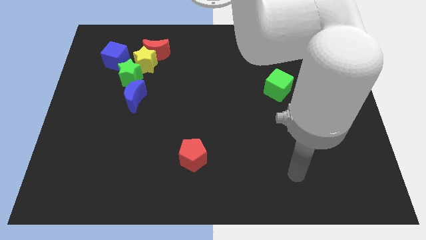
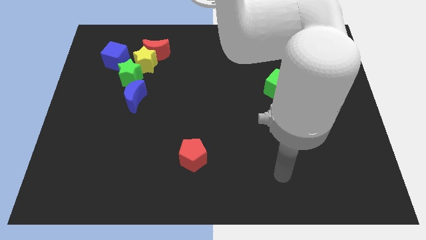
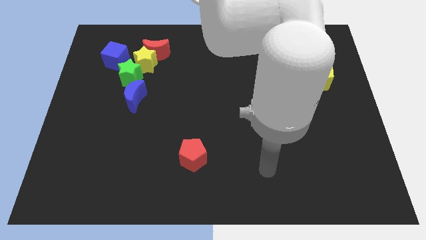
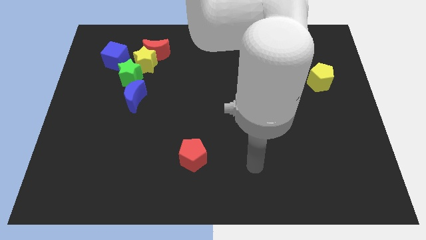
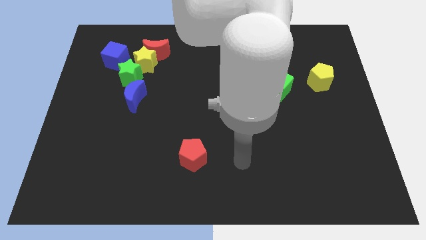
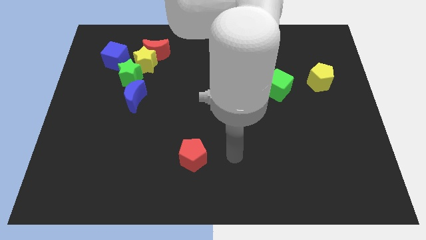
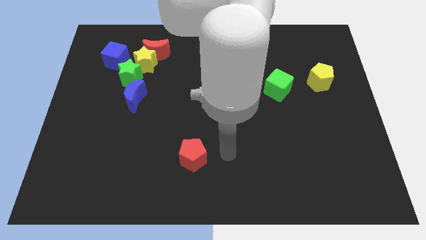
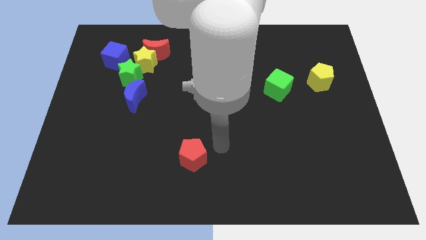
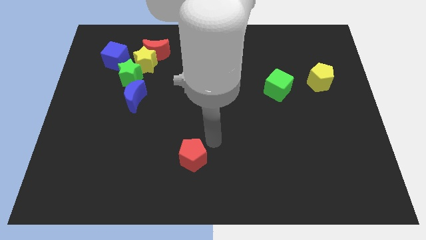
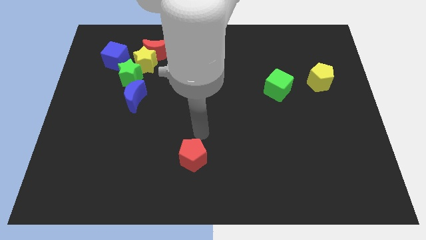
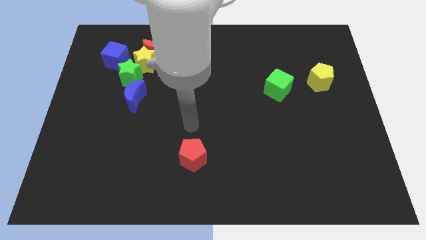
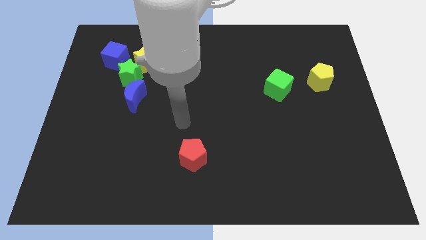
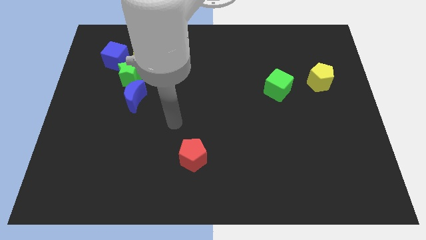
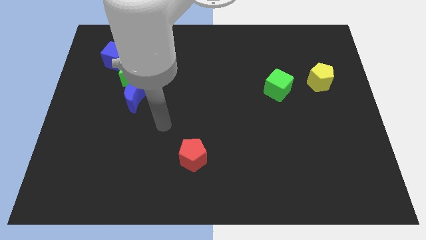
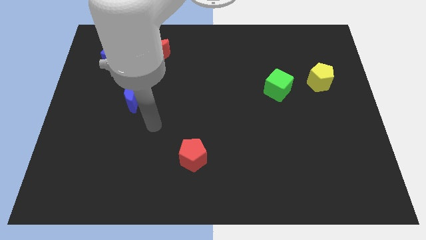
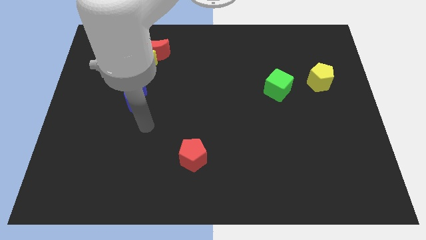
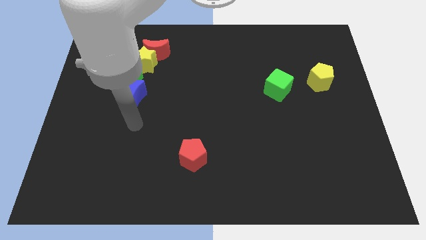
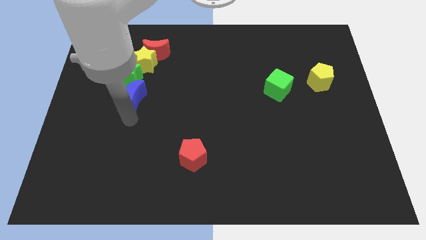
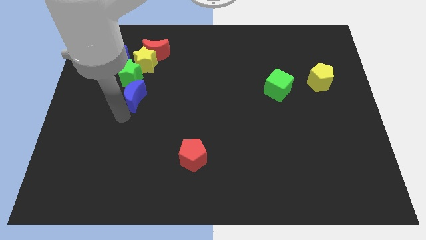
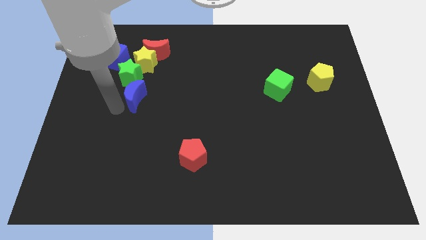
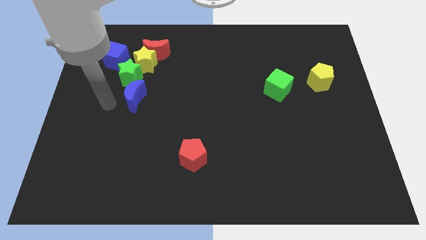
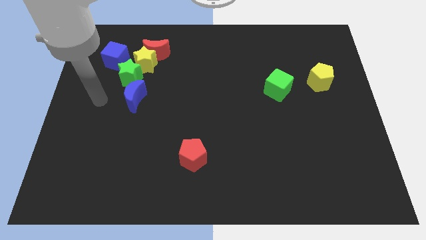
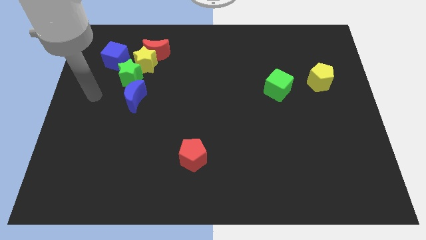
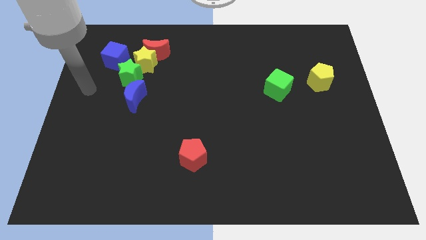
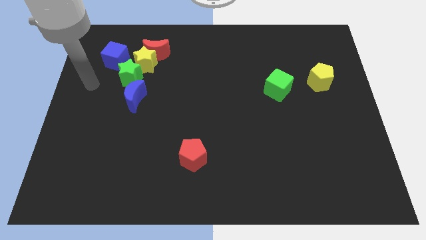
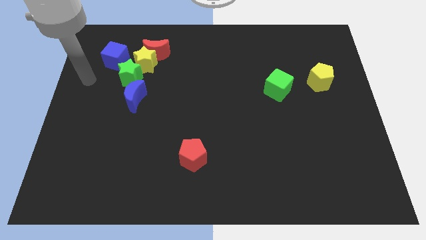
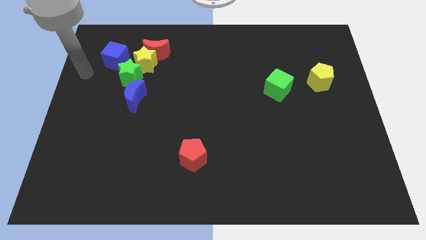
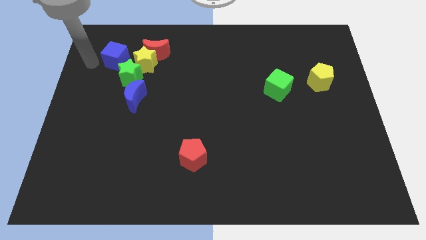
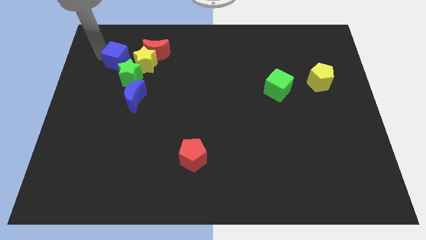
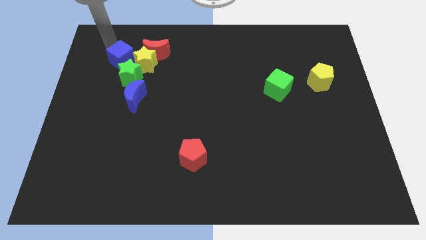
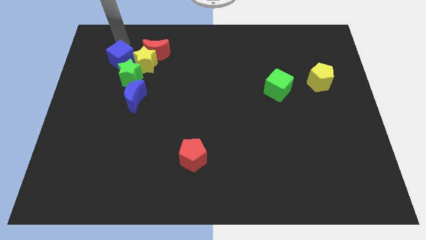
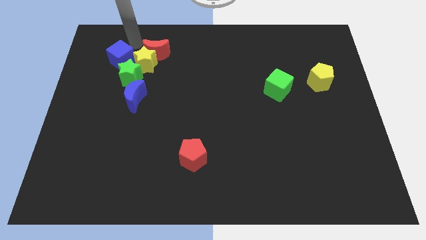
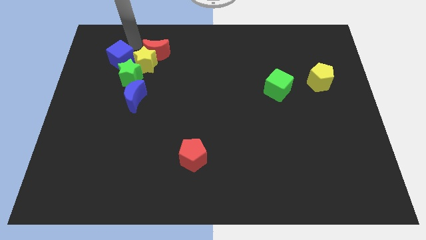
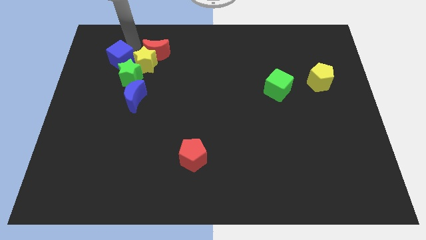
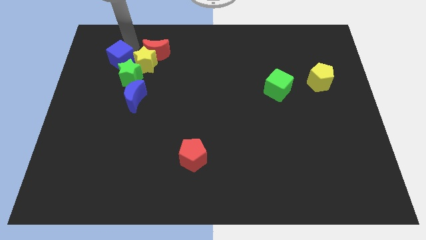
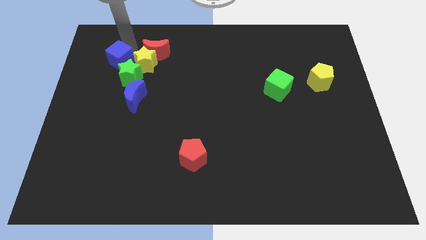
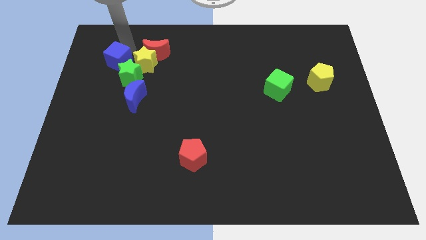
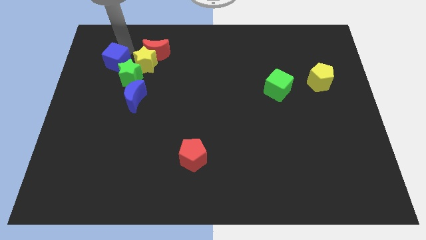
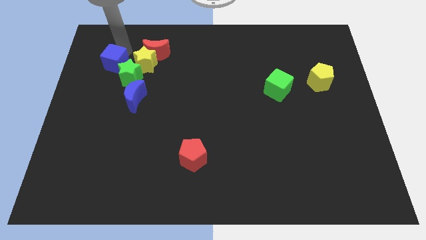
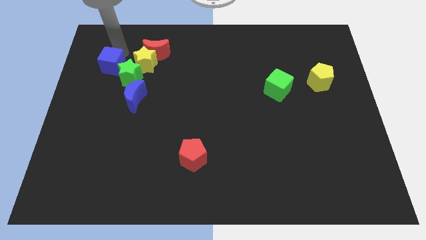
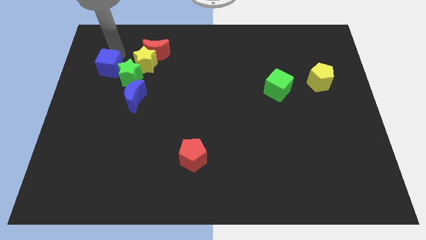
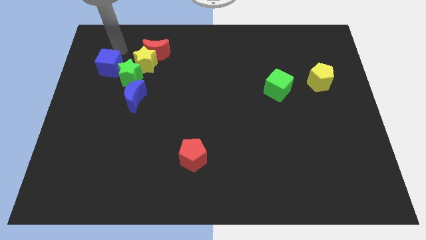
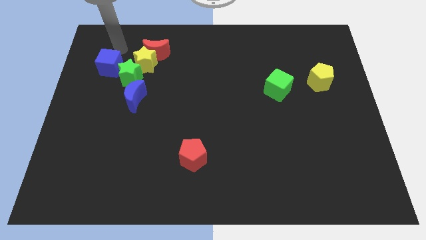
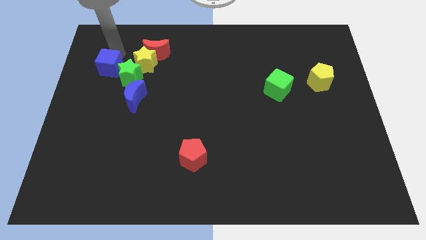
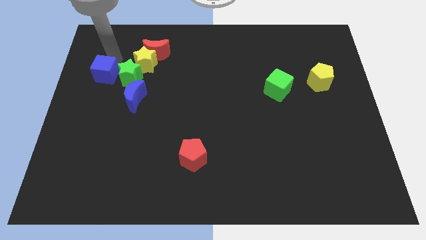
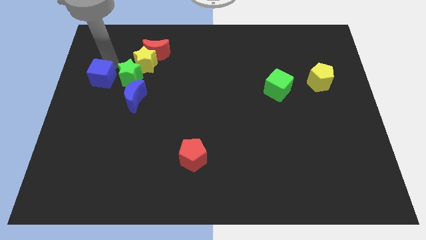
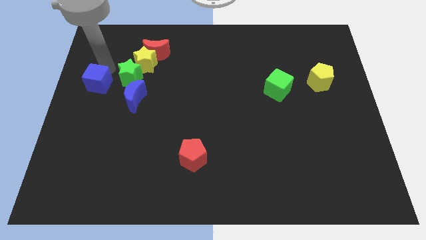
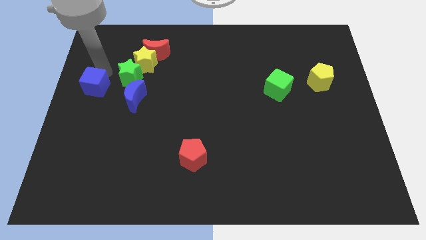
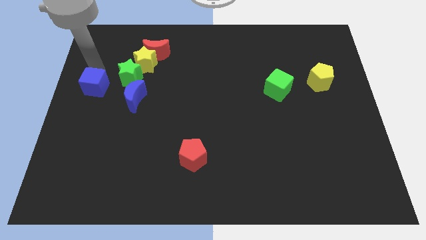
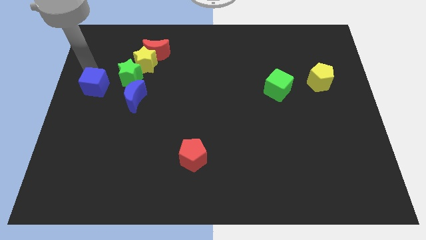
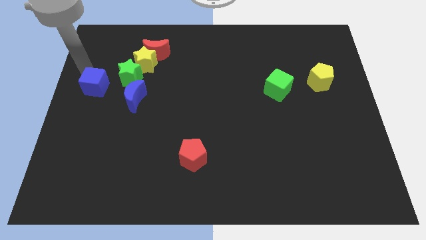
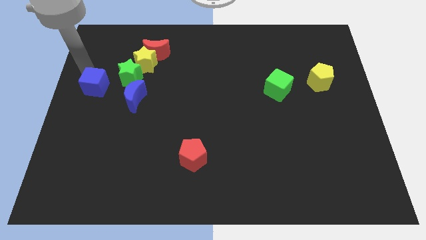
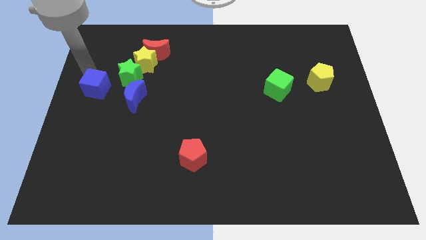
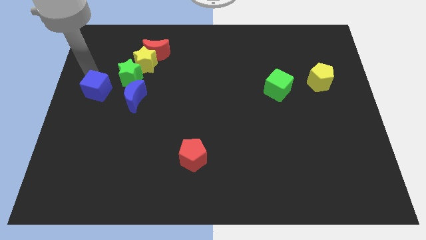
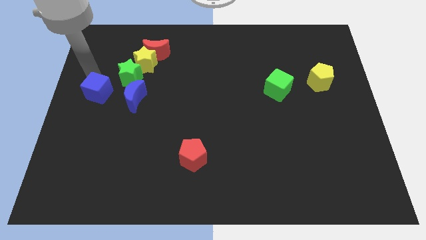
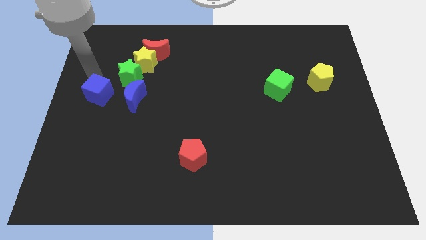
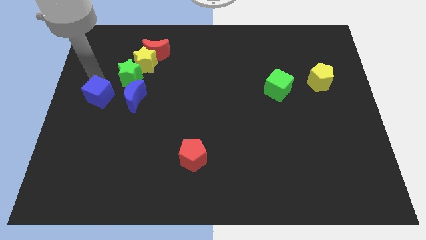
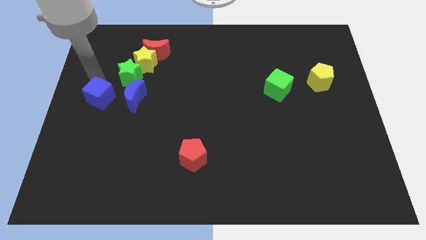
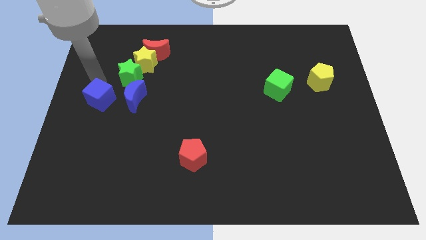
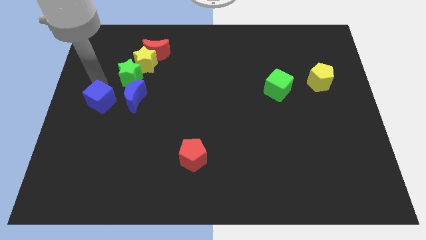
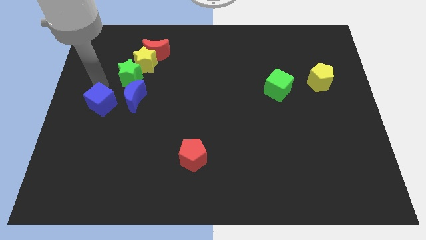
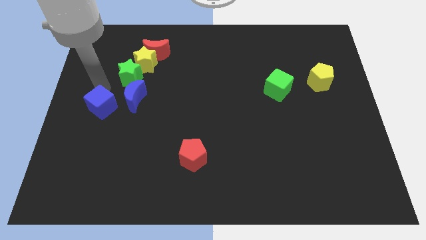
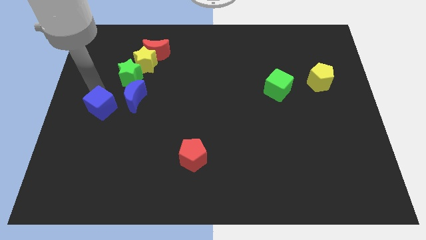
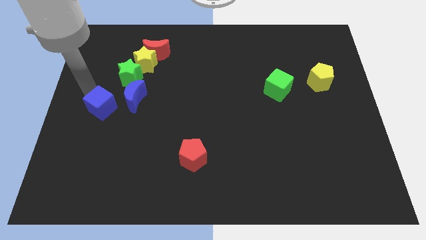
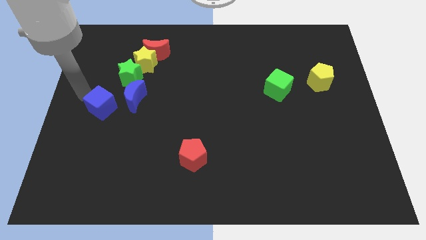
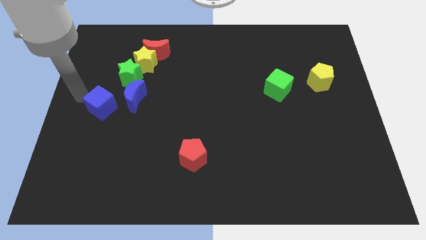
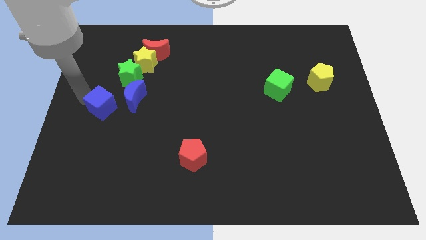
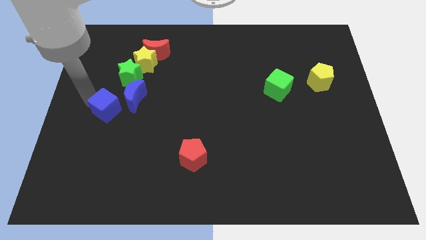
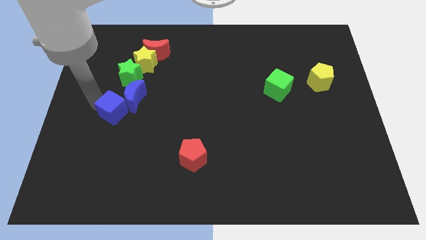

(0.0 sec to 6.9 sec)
push the blue cube somewhat down and then to the right

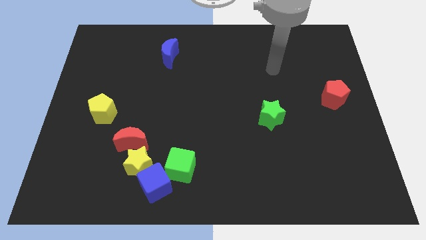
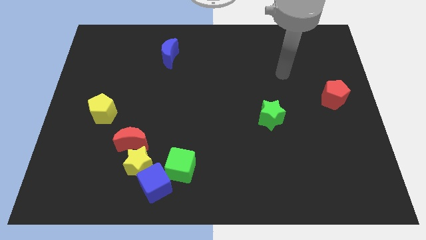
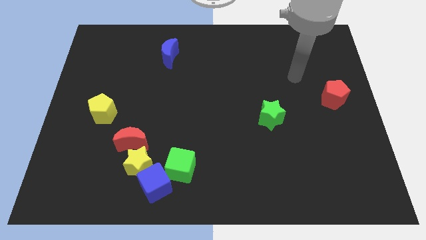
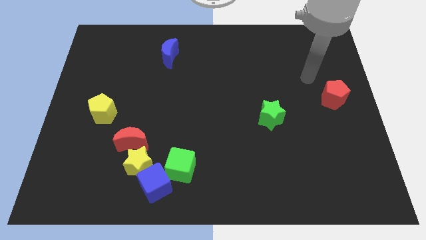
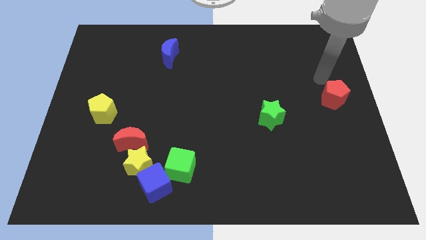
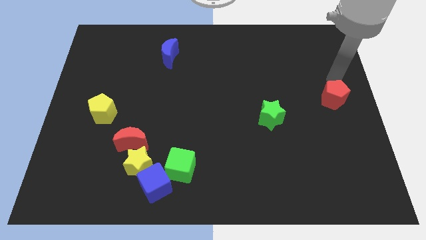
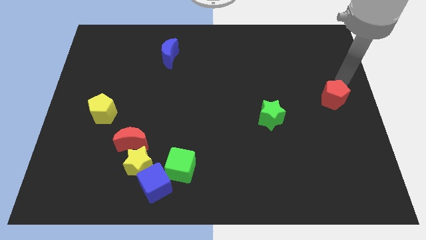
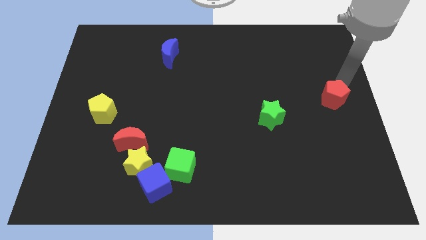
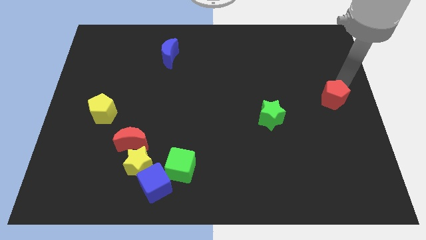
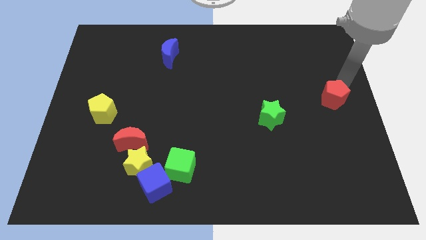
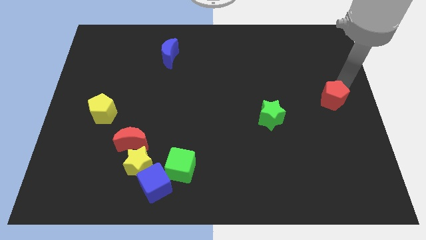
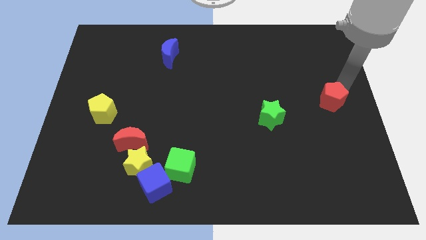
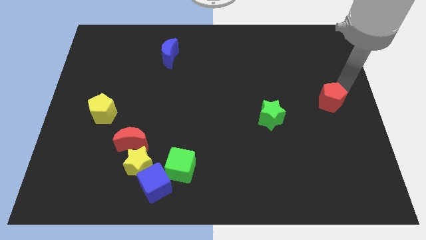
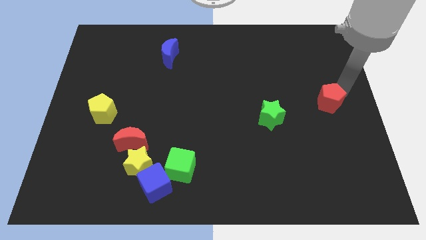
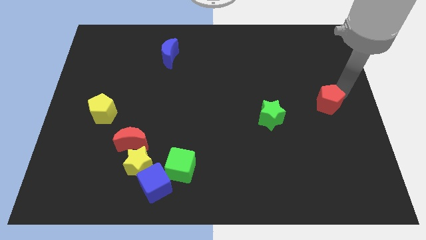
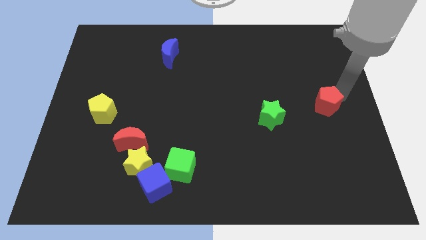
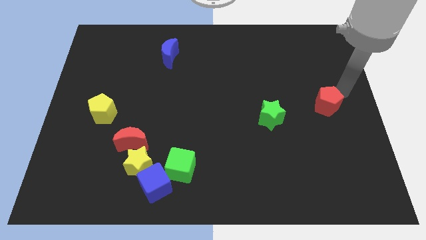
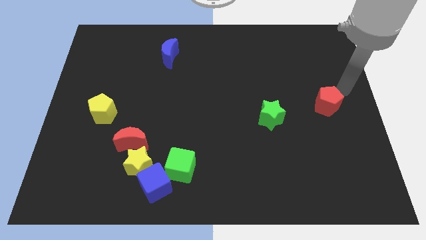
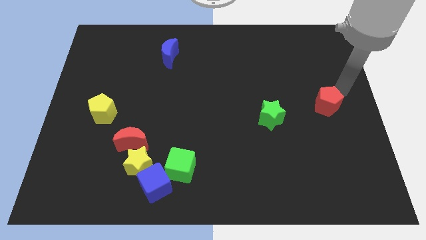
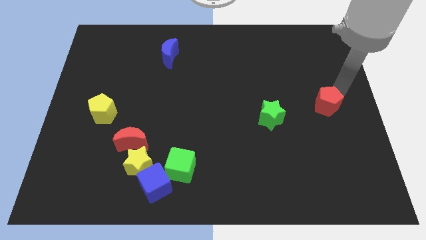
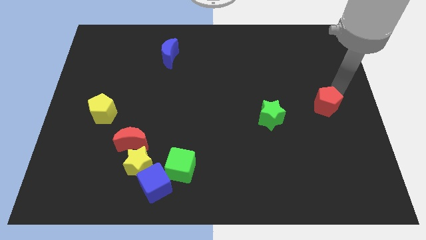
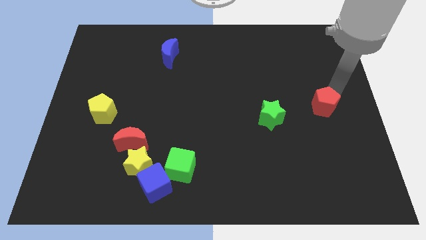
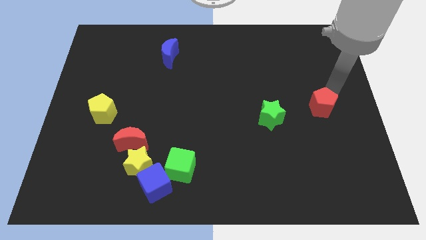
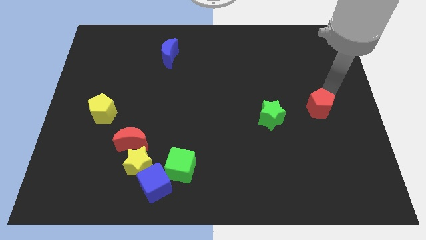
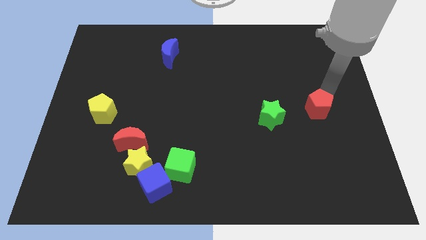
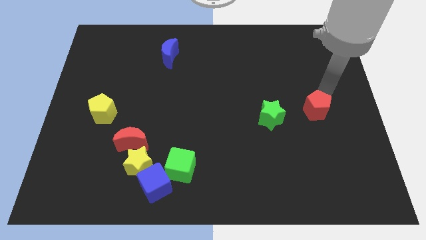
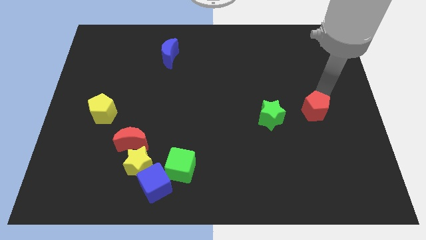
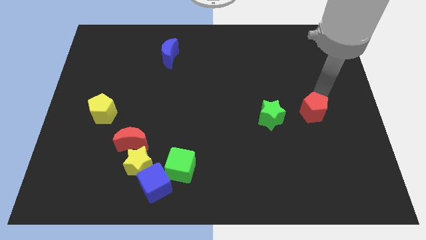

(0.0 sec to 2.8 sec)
push the red pentagon down and left somewhat
